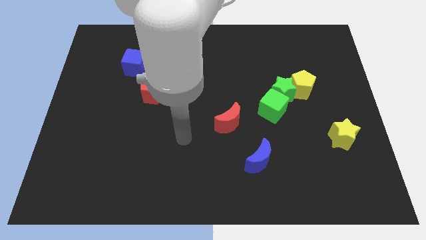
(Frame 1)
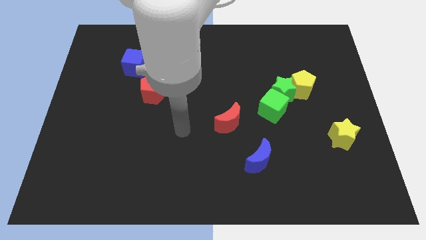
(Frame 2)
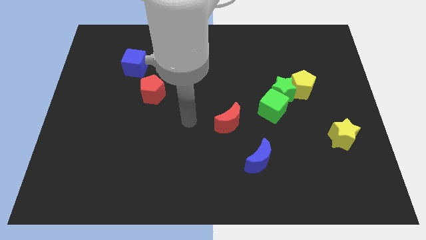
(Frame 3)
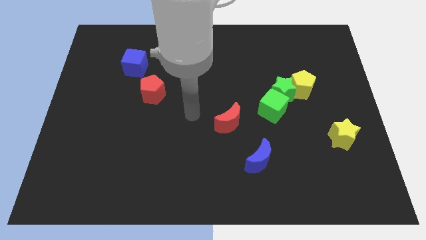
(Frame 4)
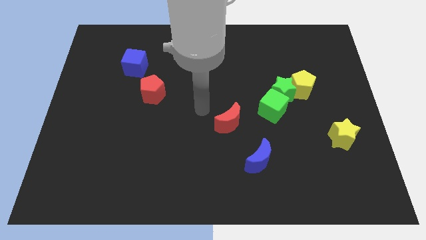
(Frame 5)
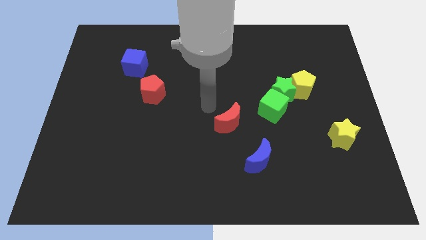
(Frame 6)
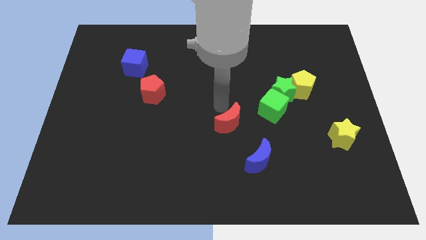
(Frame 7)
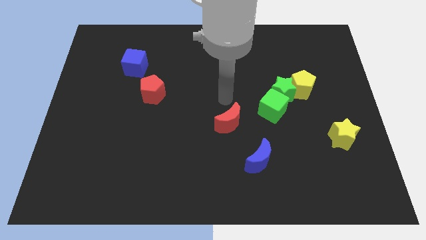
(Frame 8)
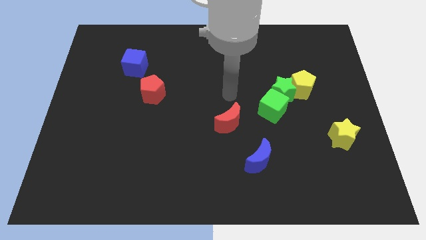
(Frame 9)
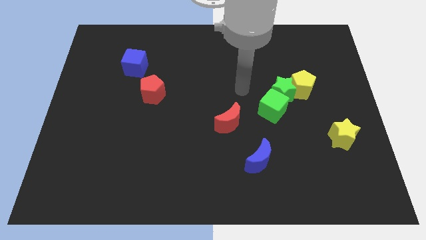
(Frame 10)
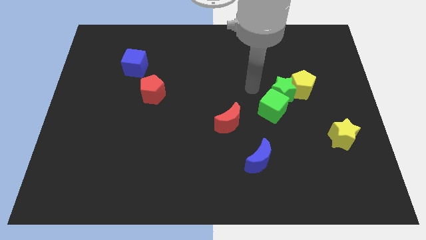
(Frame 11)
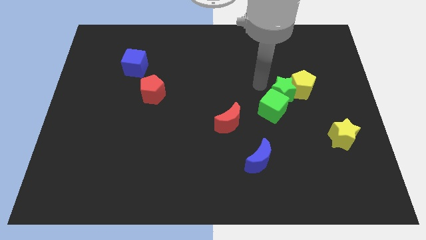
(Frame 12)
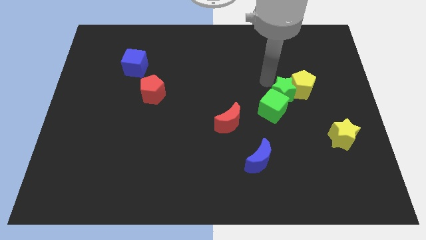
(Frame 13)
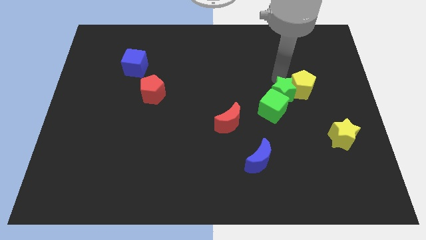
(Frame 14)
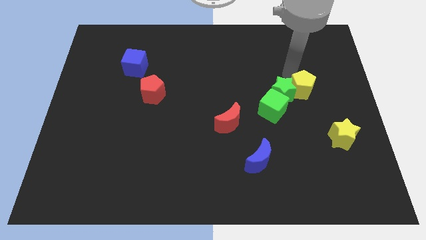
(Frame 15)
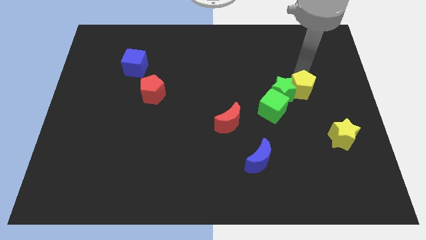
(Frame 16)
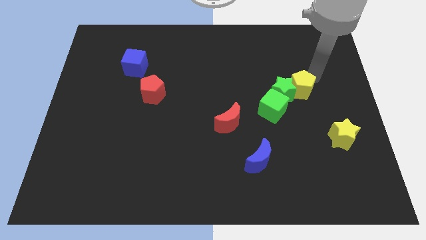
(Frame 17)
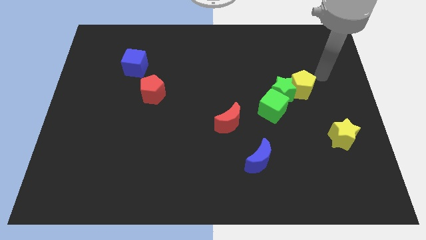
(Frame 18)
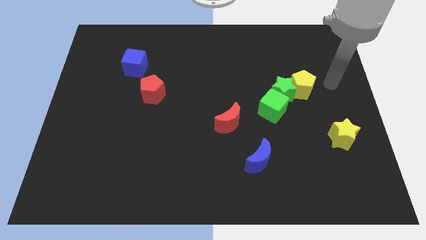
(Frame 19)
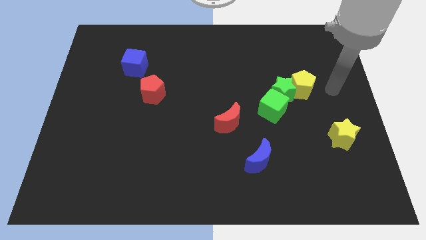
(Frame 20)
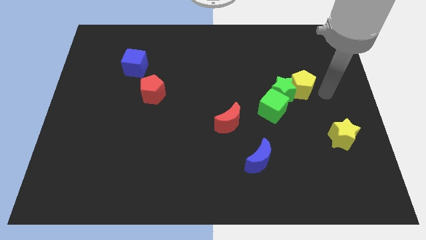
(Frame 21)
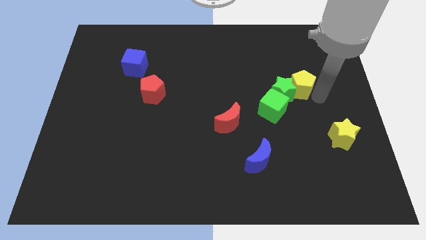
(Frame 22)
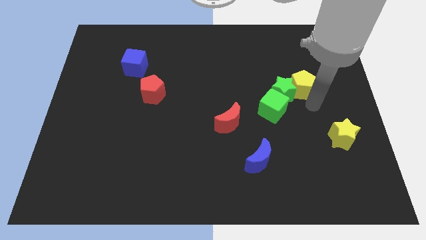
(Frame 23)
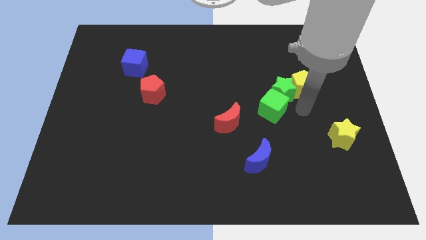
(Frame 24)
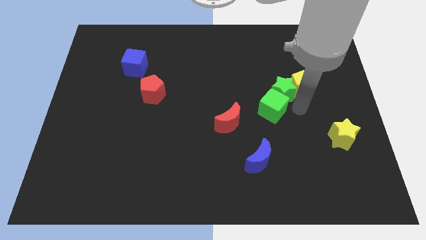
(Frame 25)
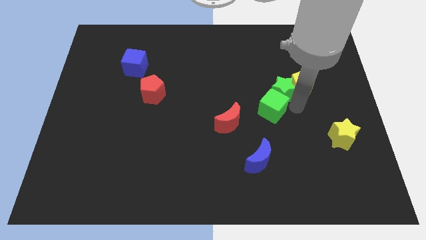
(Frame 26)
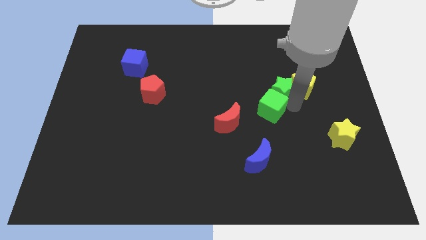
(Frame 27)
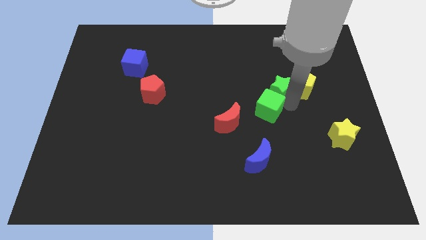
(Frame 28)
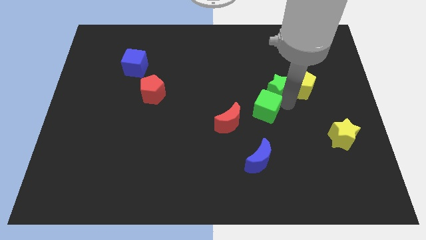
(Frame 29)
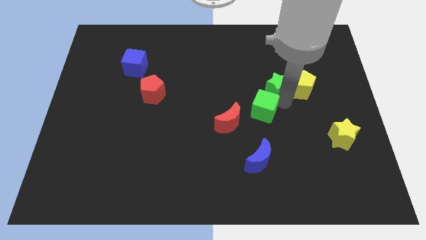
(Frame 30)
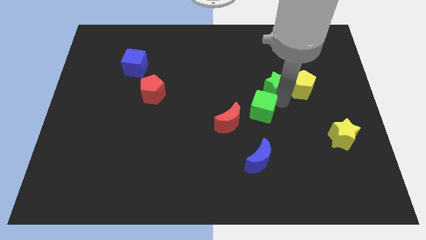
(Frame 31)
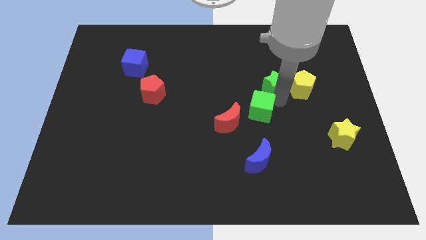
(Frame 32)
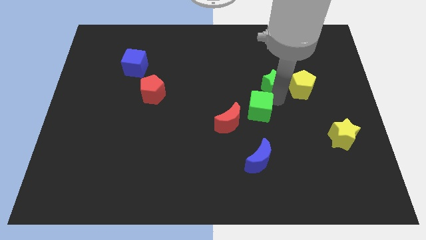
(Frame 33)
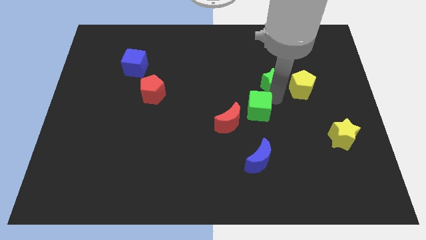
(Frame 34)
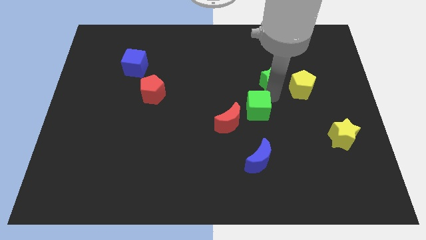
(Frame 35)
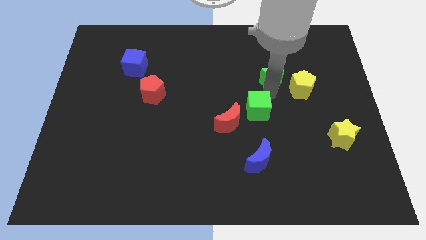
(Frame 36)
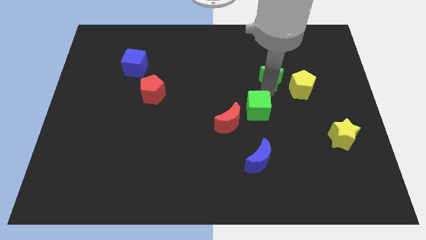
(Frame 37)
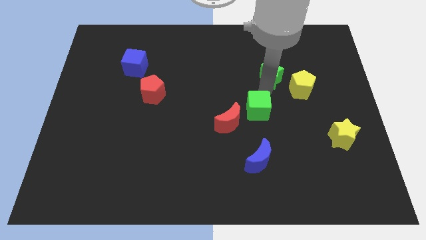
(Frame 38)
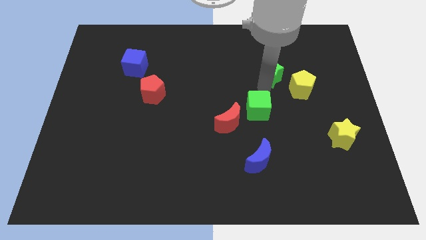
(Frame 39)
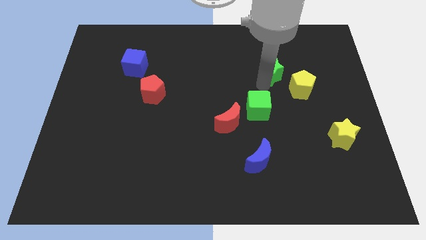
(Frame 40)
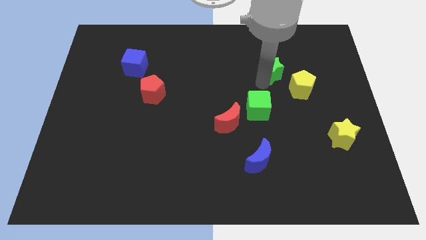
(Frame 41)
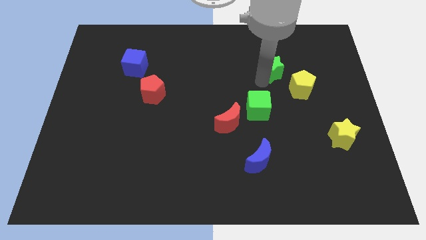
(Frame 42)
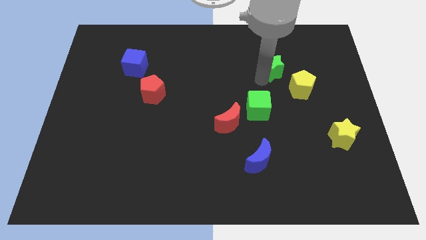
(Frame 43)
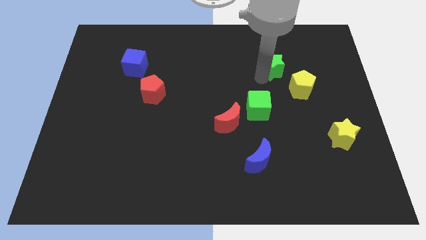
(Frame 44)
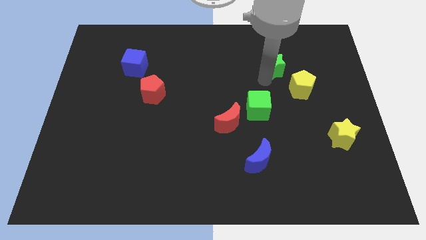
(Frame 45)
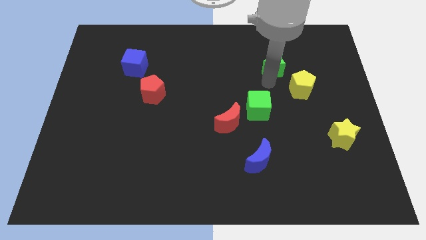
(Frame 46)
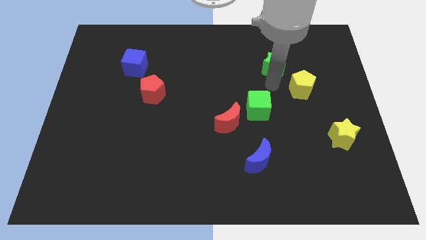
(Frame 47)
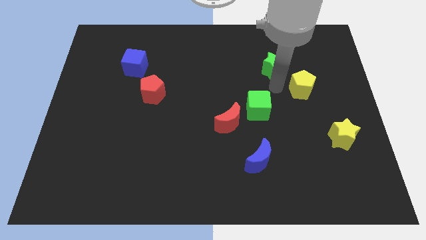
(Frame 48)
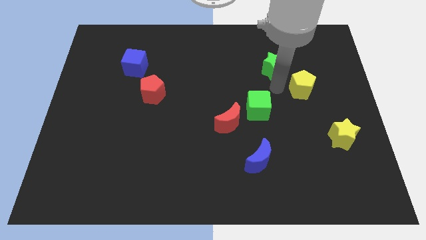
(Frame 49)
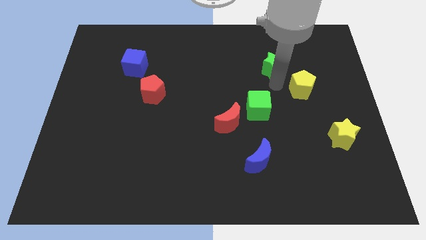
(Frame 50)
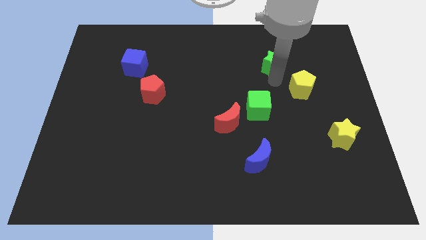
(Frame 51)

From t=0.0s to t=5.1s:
pull the green star apart from the green cube and yellow pentagon

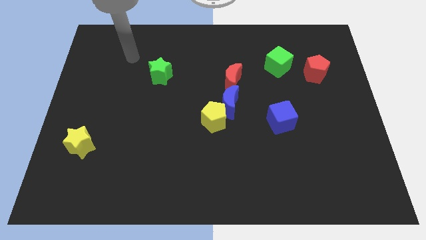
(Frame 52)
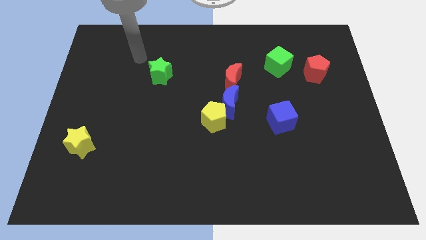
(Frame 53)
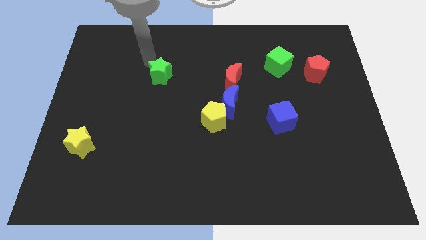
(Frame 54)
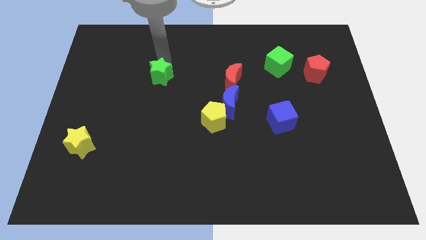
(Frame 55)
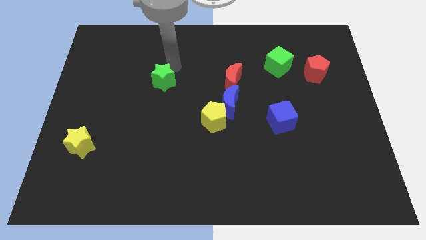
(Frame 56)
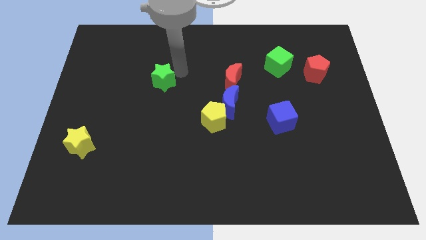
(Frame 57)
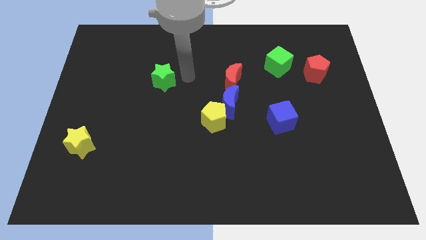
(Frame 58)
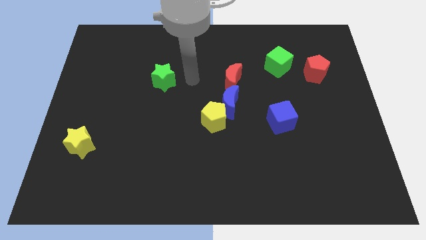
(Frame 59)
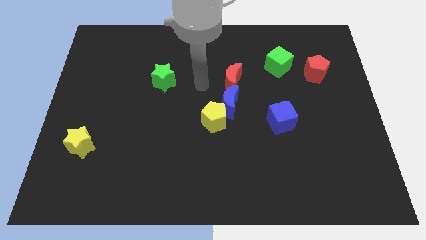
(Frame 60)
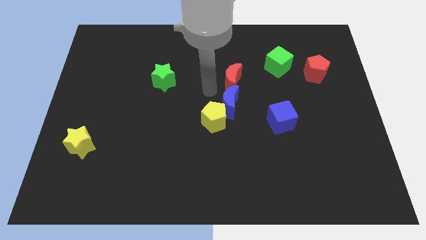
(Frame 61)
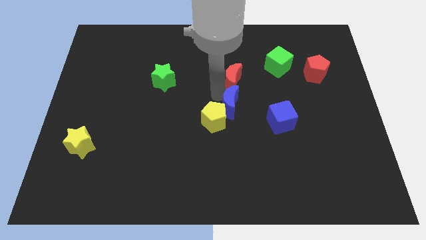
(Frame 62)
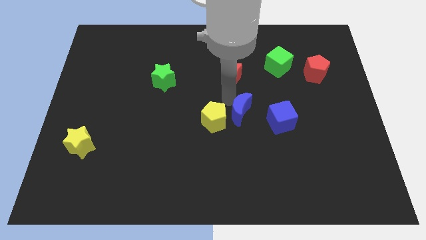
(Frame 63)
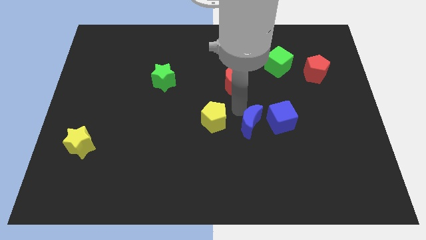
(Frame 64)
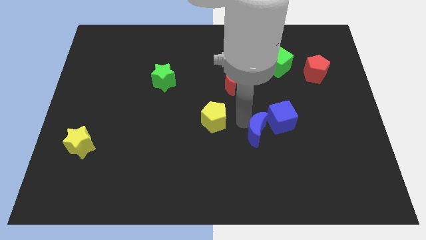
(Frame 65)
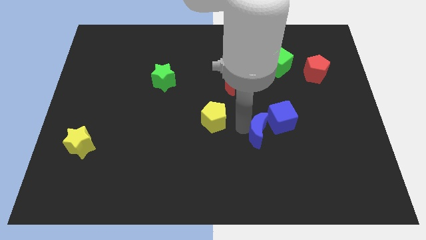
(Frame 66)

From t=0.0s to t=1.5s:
pull the yellow pentagon apart from the blue moon

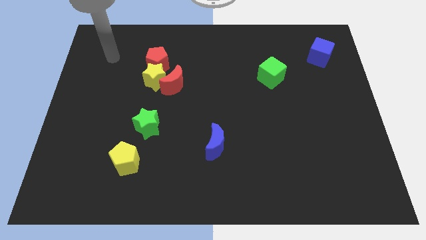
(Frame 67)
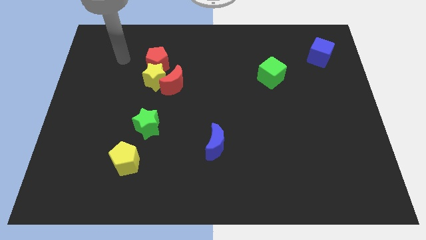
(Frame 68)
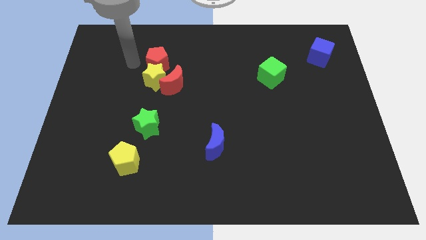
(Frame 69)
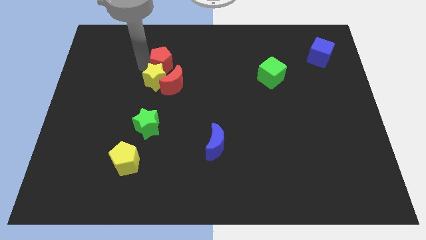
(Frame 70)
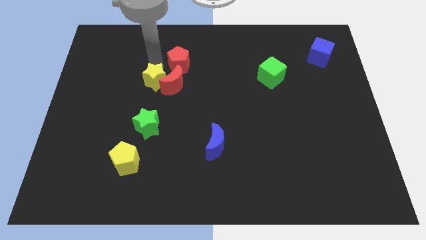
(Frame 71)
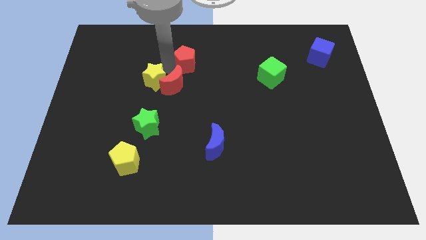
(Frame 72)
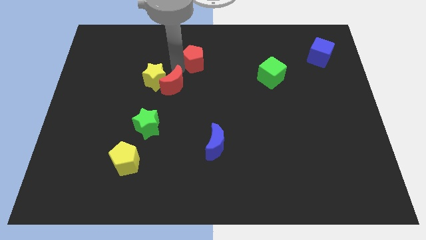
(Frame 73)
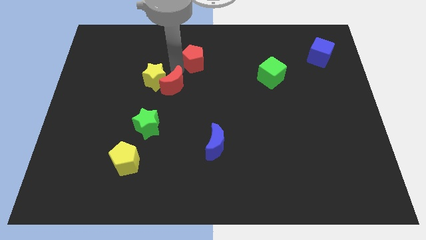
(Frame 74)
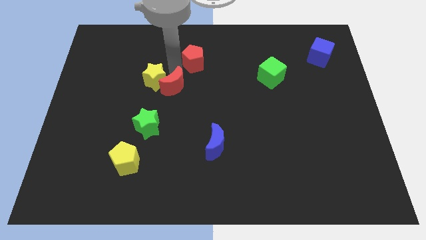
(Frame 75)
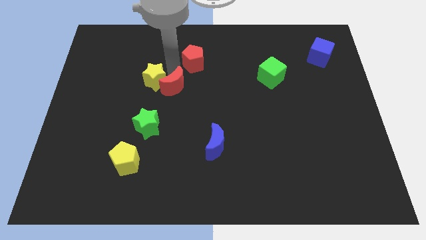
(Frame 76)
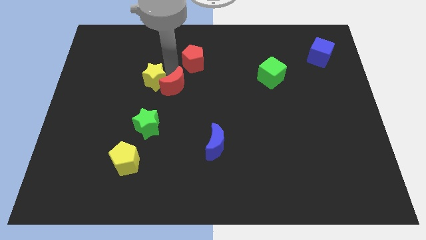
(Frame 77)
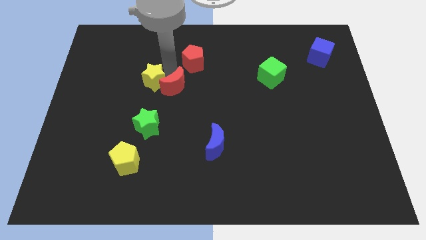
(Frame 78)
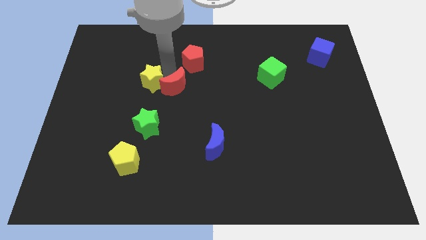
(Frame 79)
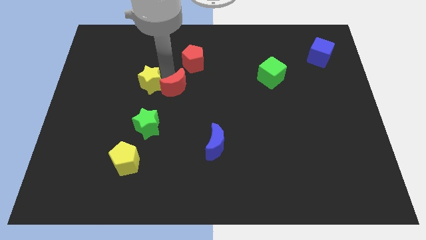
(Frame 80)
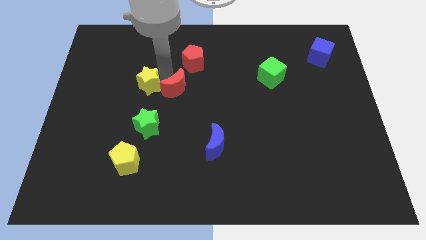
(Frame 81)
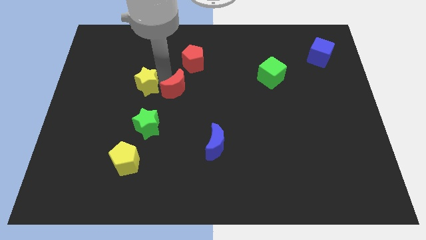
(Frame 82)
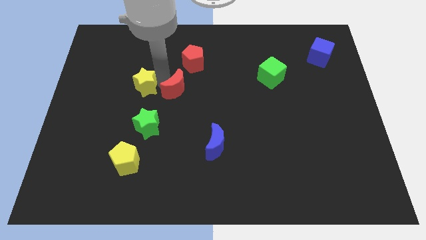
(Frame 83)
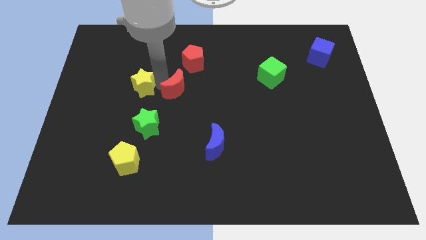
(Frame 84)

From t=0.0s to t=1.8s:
pull the yellow star apart from the red moon and red pentagon

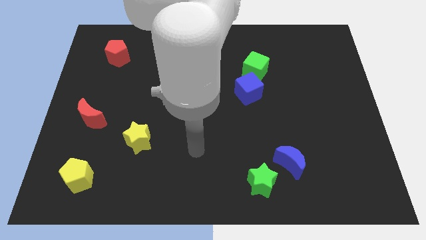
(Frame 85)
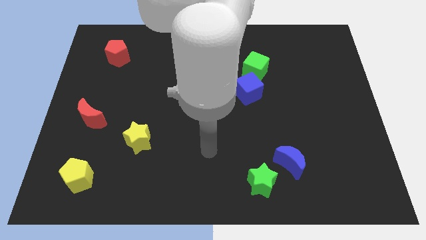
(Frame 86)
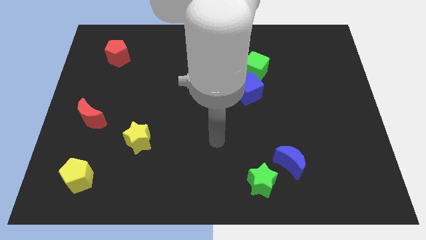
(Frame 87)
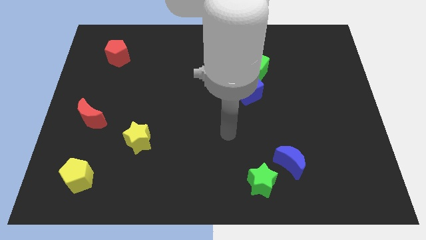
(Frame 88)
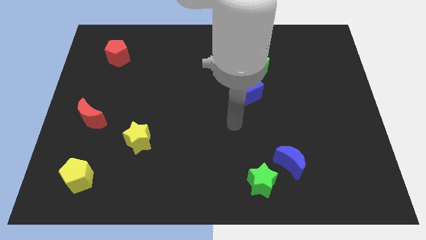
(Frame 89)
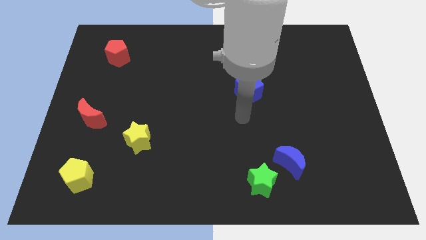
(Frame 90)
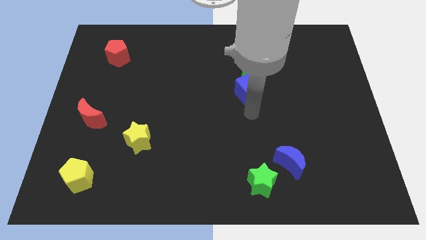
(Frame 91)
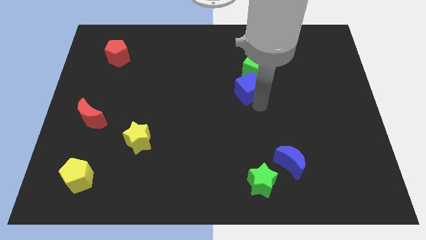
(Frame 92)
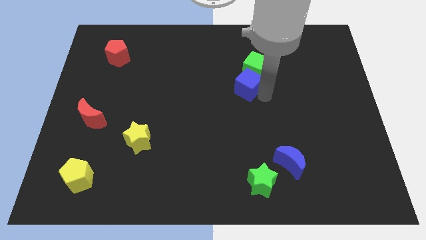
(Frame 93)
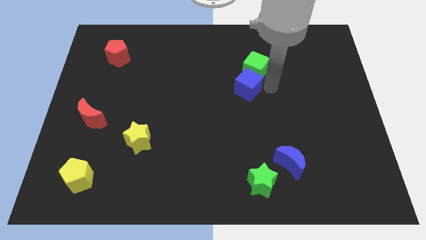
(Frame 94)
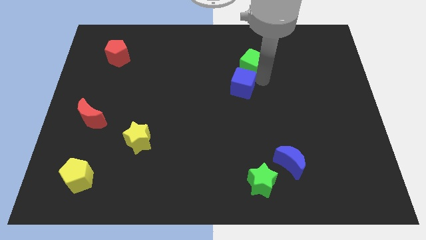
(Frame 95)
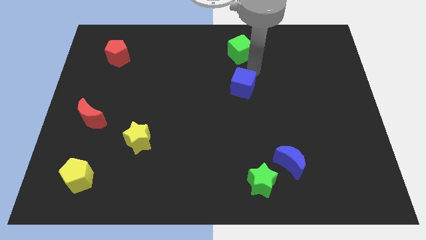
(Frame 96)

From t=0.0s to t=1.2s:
separate the blue cube from the green cube

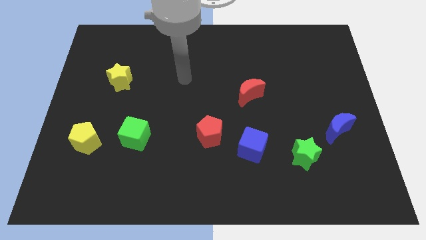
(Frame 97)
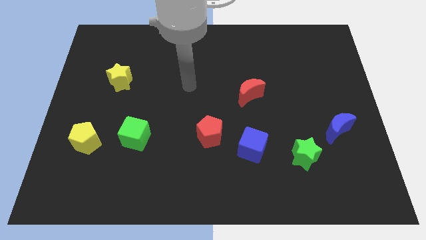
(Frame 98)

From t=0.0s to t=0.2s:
separate the red pentagon from the blue cube